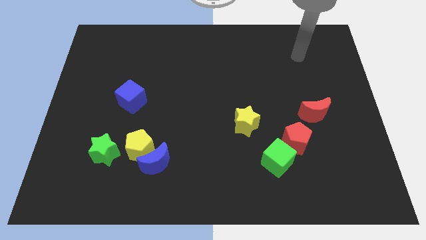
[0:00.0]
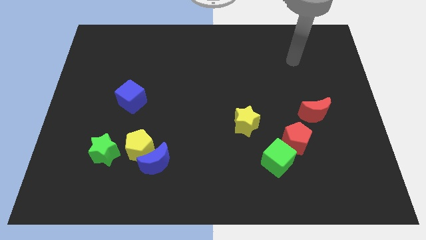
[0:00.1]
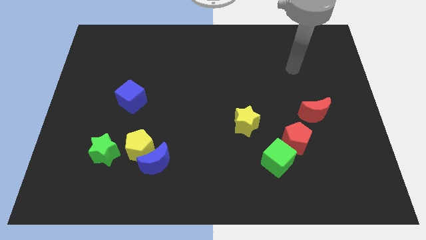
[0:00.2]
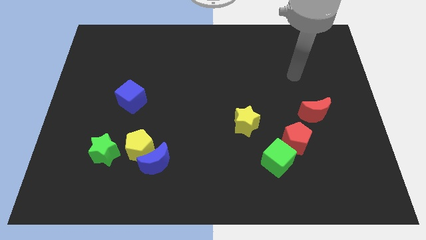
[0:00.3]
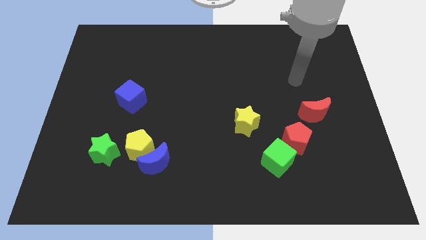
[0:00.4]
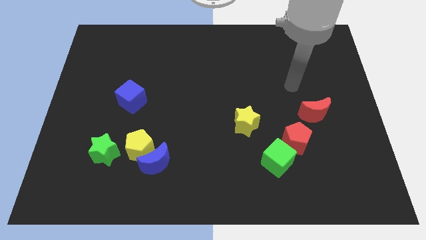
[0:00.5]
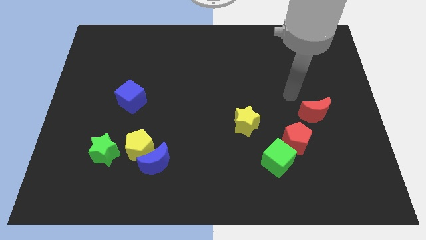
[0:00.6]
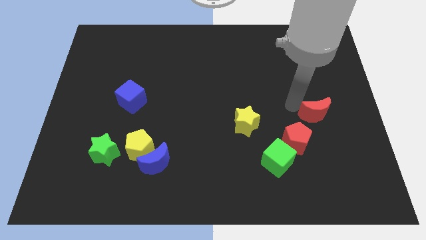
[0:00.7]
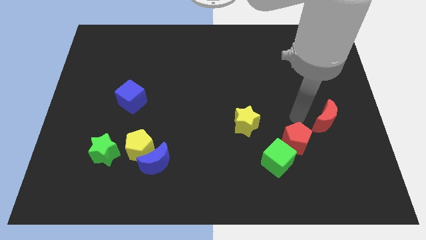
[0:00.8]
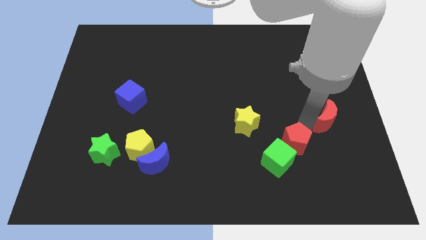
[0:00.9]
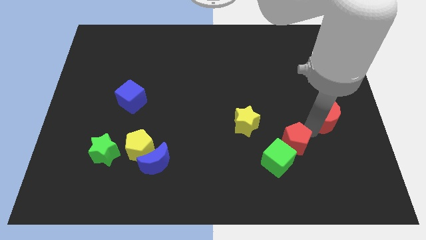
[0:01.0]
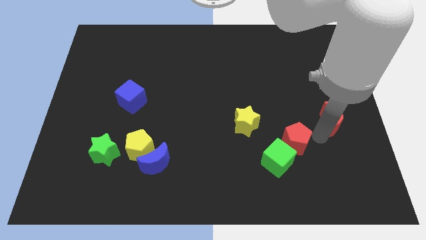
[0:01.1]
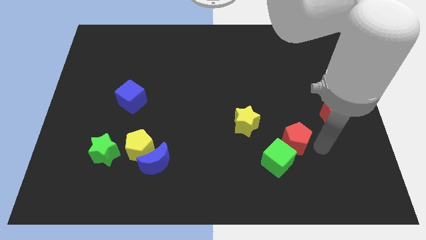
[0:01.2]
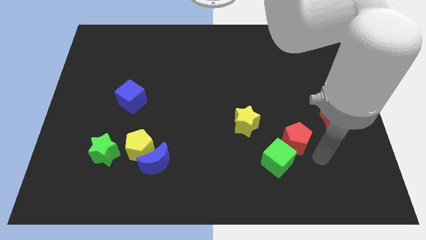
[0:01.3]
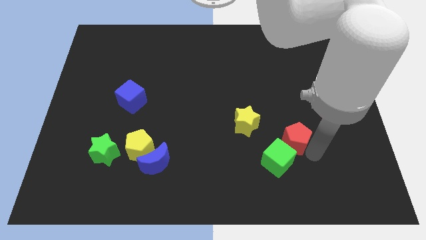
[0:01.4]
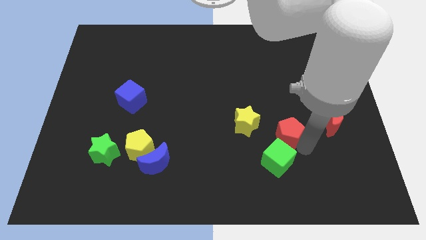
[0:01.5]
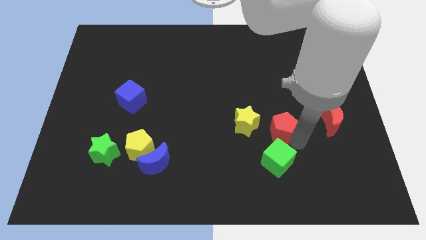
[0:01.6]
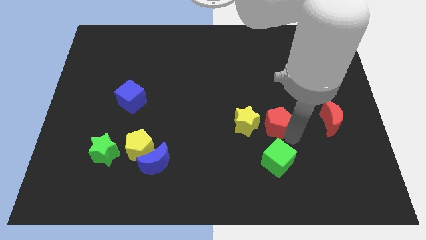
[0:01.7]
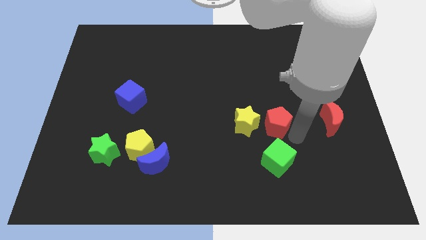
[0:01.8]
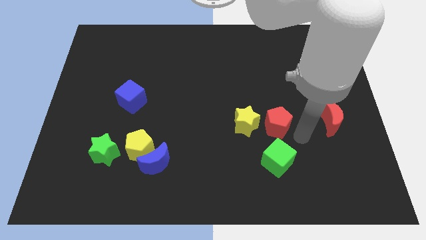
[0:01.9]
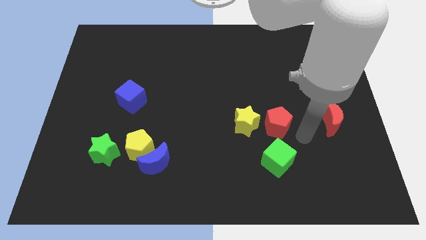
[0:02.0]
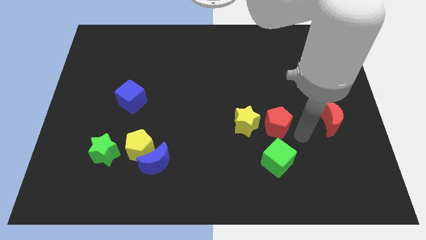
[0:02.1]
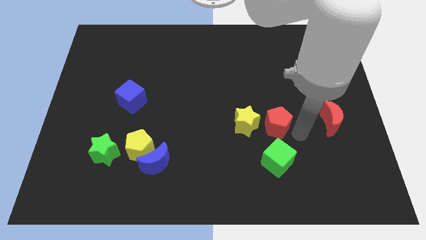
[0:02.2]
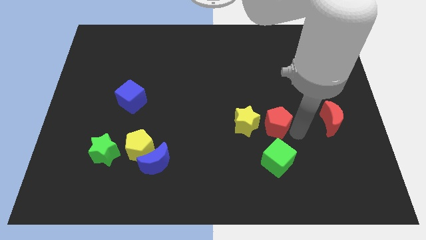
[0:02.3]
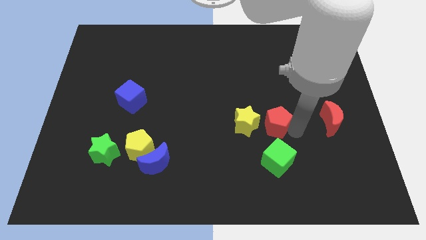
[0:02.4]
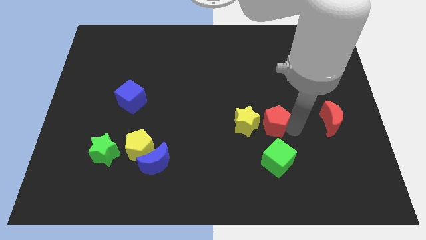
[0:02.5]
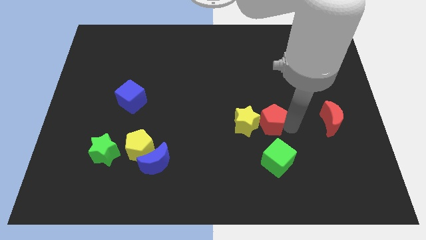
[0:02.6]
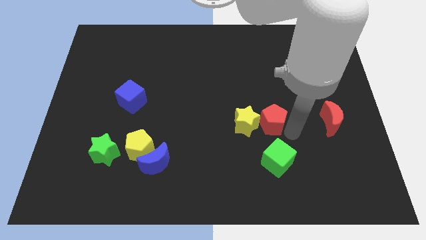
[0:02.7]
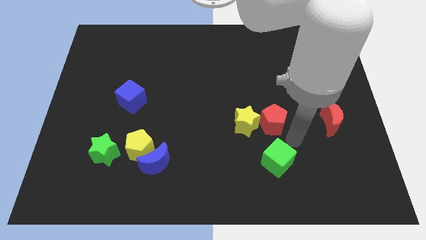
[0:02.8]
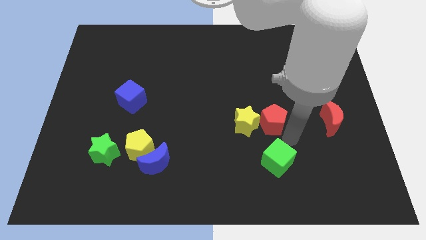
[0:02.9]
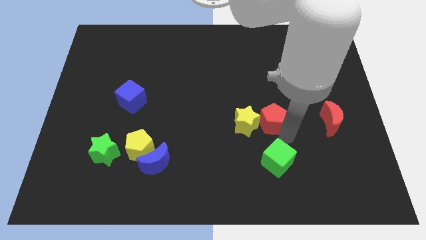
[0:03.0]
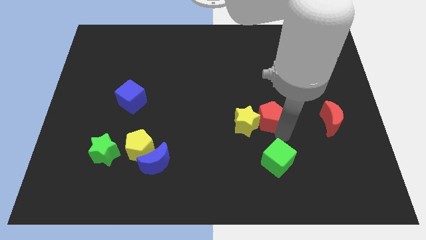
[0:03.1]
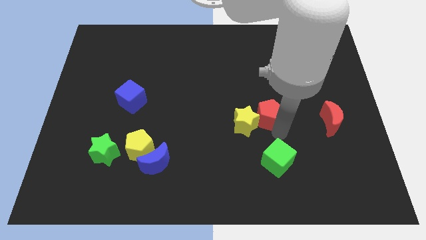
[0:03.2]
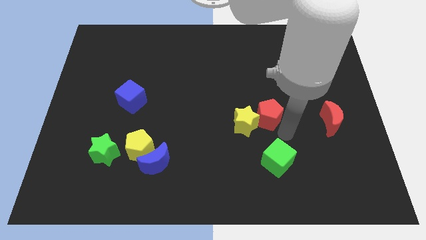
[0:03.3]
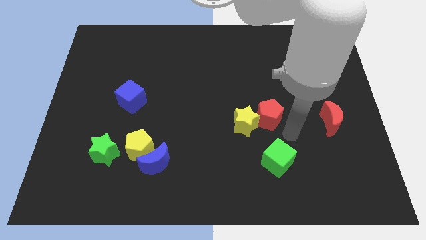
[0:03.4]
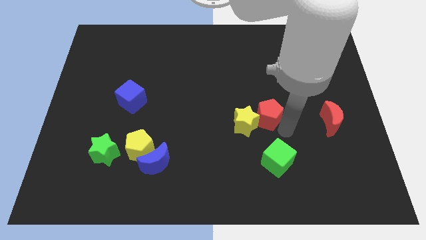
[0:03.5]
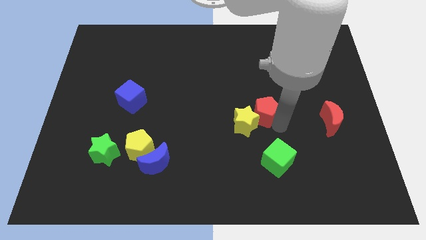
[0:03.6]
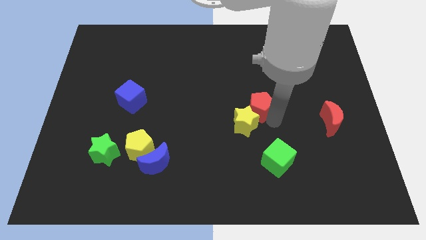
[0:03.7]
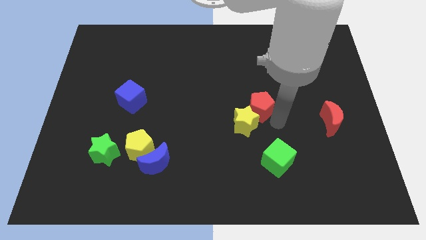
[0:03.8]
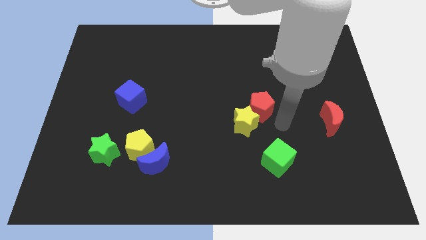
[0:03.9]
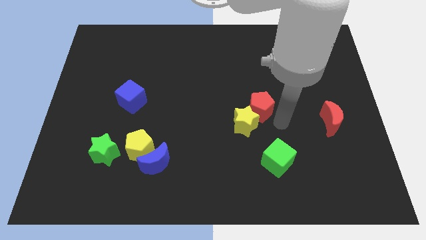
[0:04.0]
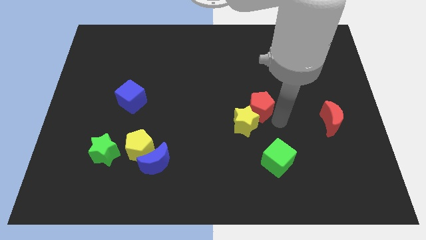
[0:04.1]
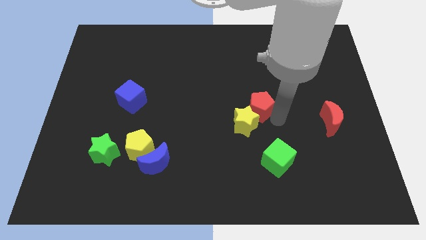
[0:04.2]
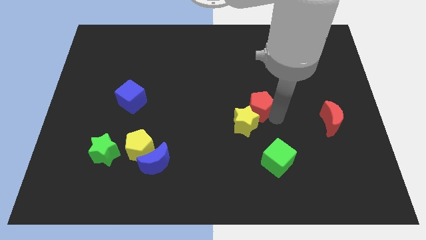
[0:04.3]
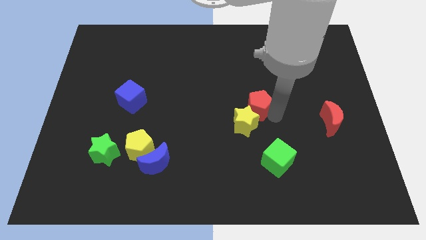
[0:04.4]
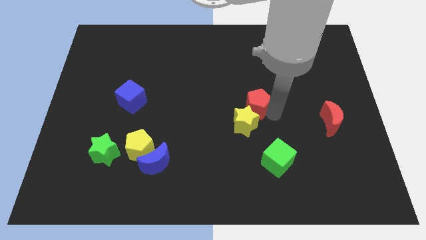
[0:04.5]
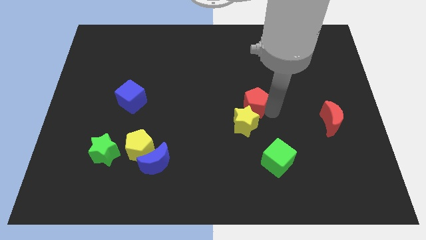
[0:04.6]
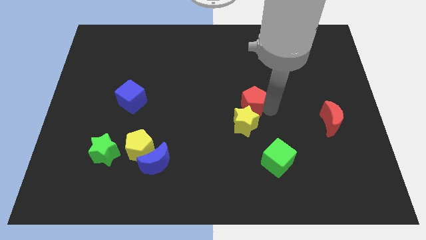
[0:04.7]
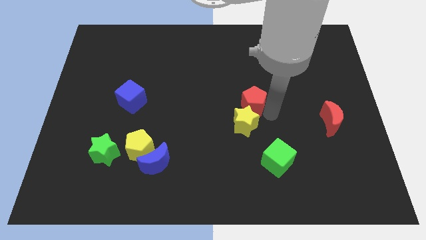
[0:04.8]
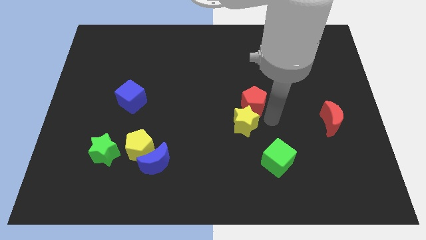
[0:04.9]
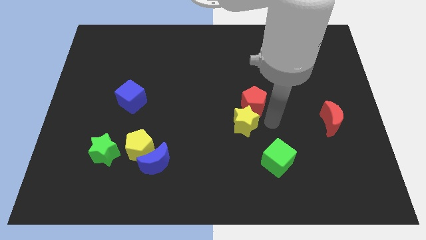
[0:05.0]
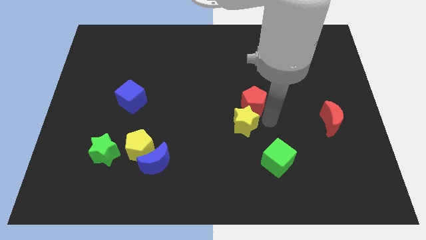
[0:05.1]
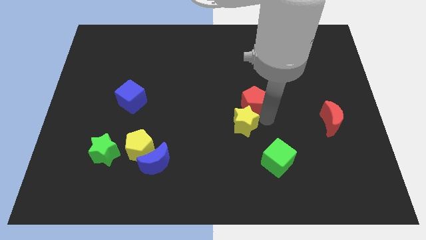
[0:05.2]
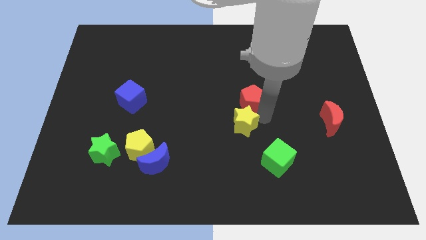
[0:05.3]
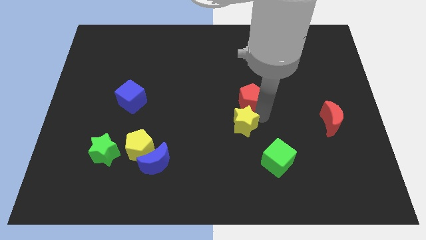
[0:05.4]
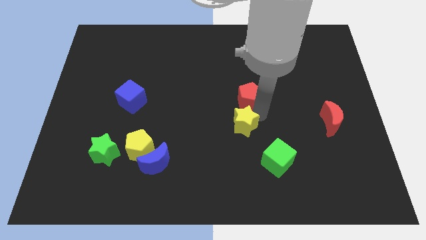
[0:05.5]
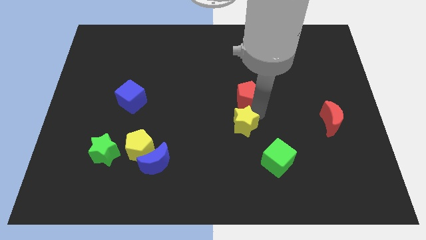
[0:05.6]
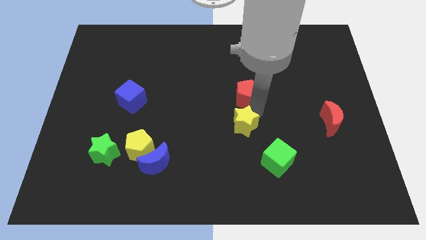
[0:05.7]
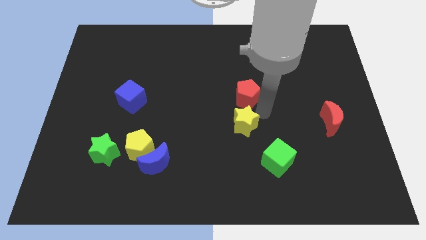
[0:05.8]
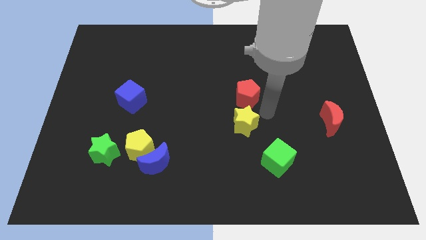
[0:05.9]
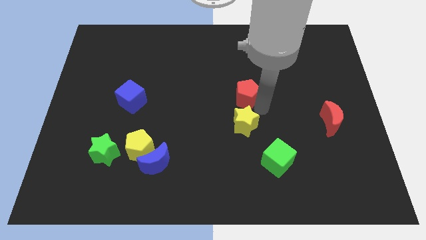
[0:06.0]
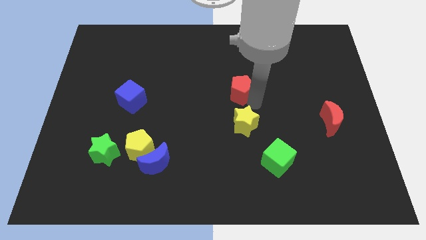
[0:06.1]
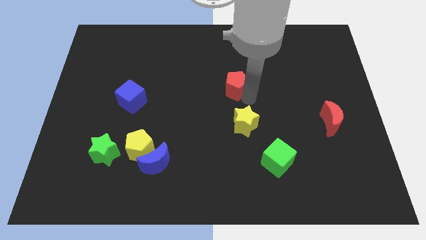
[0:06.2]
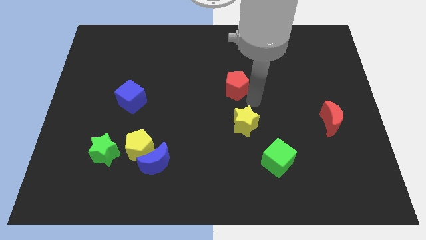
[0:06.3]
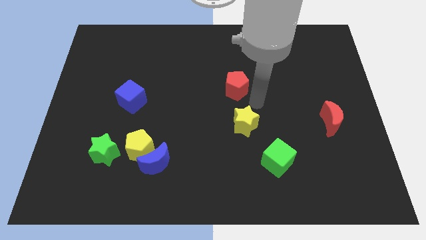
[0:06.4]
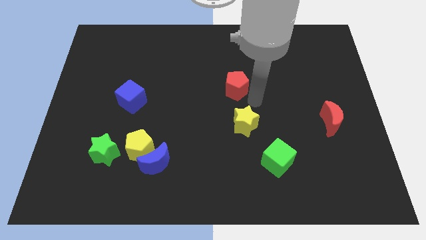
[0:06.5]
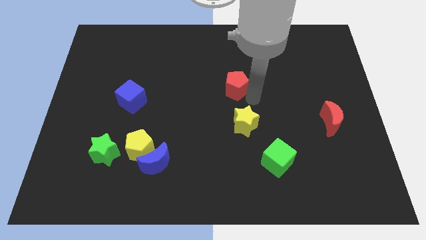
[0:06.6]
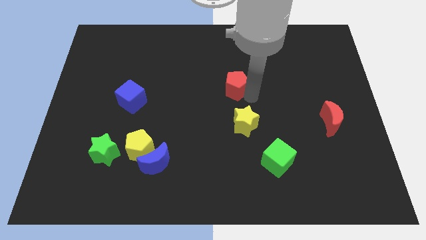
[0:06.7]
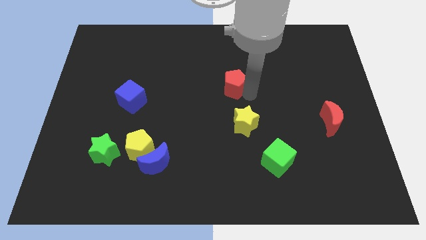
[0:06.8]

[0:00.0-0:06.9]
move the red pentagon up and to the left

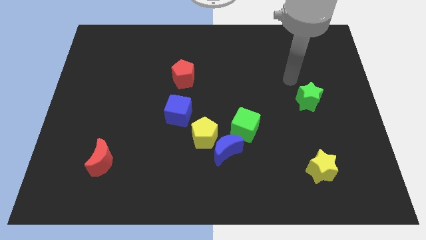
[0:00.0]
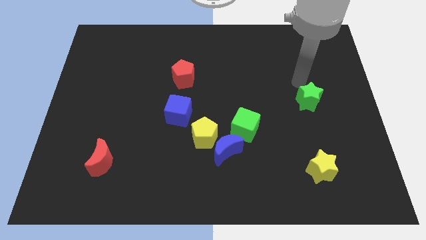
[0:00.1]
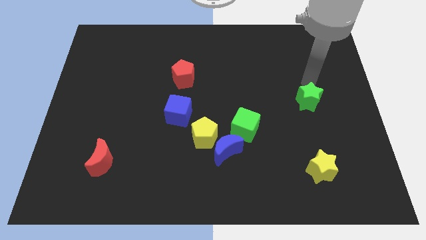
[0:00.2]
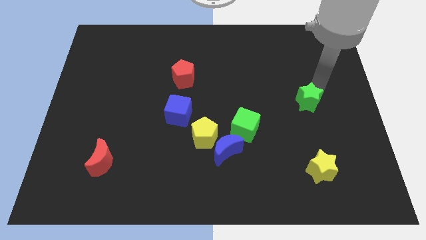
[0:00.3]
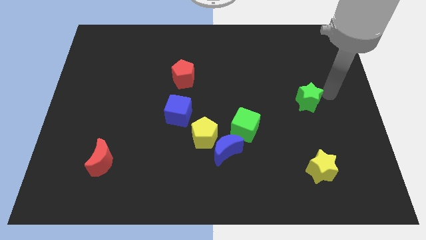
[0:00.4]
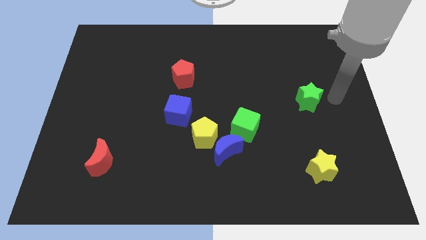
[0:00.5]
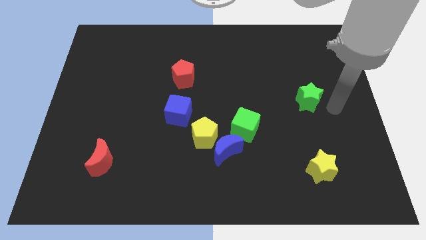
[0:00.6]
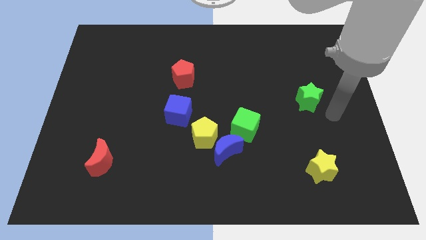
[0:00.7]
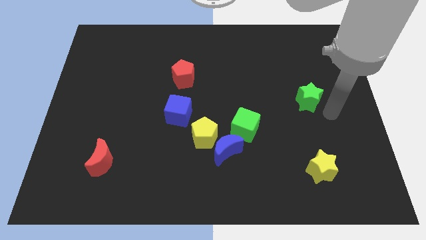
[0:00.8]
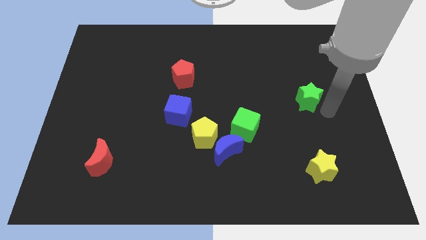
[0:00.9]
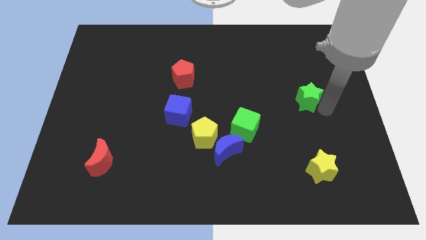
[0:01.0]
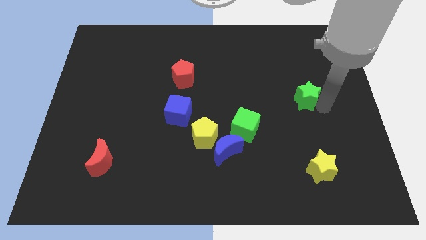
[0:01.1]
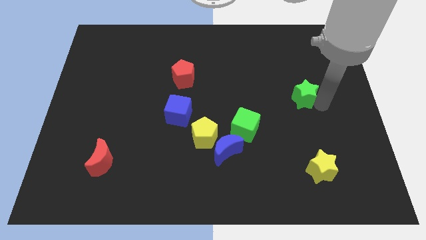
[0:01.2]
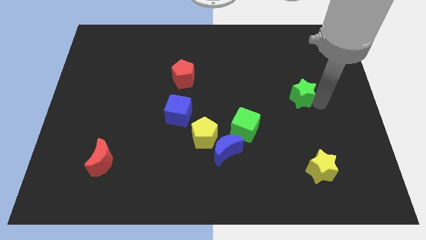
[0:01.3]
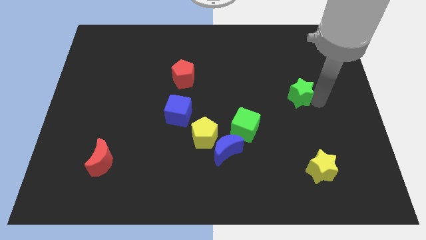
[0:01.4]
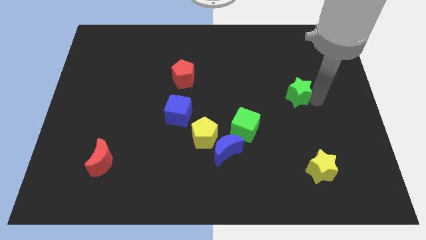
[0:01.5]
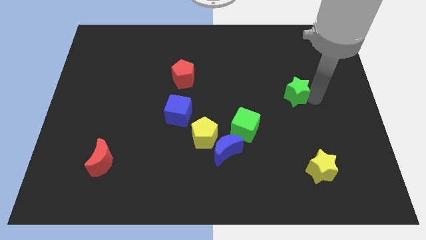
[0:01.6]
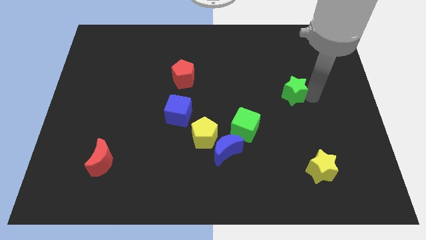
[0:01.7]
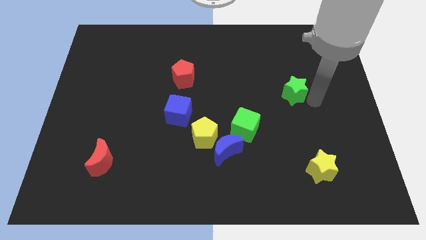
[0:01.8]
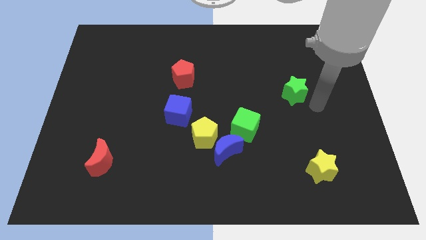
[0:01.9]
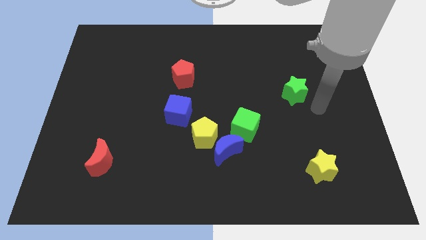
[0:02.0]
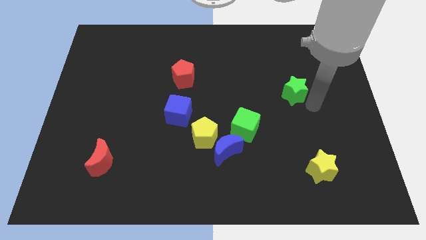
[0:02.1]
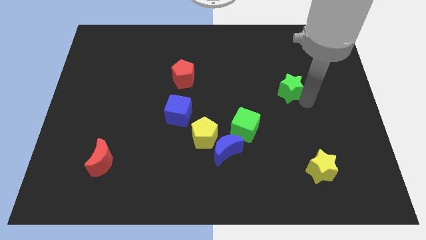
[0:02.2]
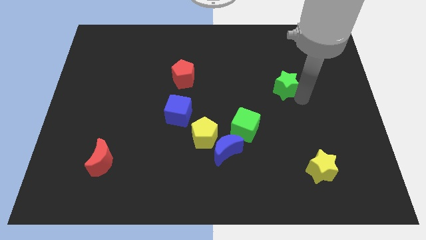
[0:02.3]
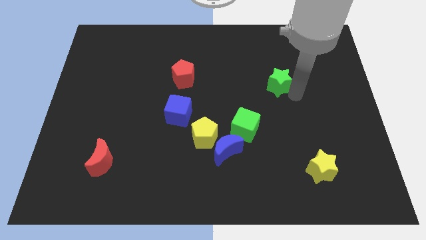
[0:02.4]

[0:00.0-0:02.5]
slightly push the green star upwards and to the left
